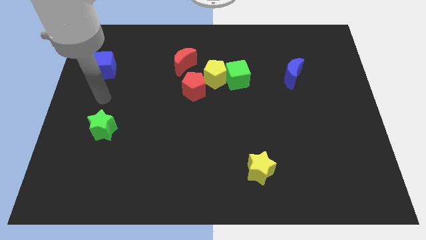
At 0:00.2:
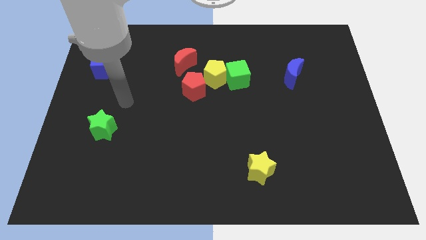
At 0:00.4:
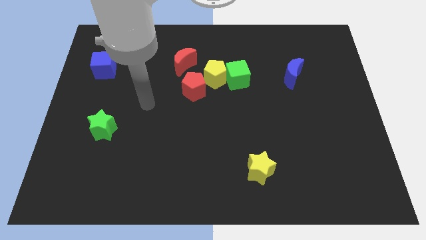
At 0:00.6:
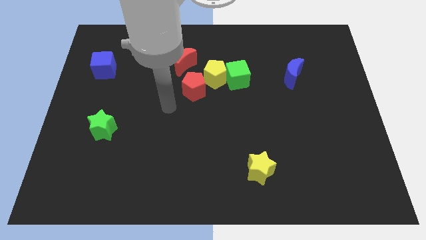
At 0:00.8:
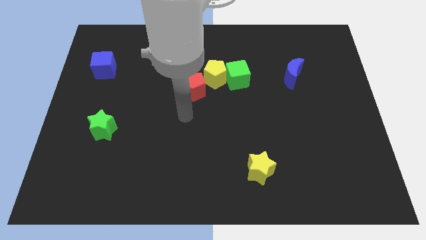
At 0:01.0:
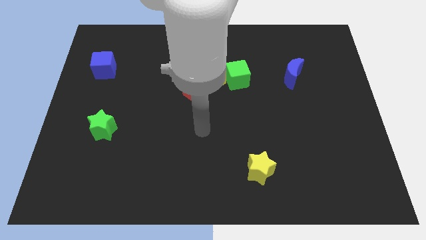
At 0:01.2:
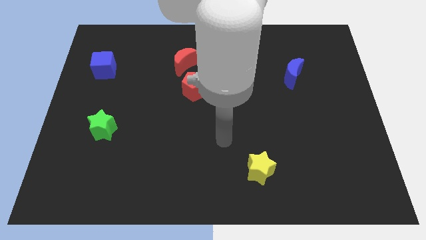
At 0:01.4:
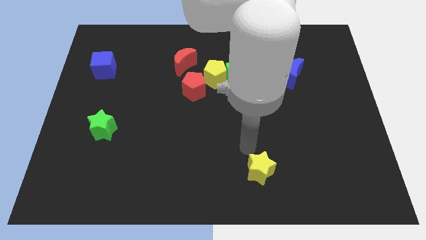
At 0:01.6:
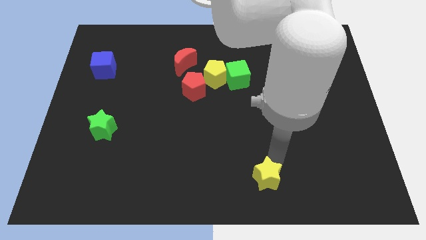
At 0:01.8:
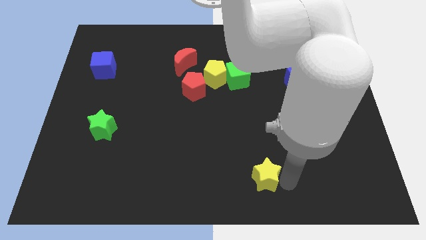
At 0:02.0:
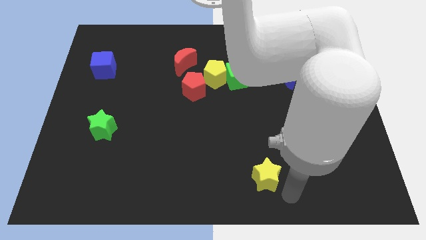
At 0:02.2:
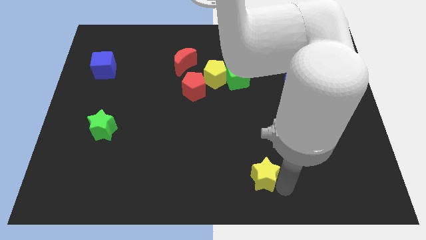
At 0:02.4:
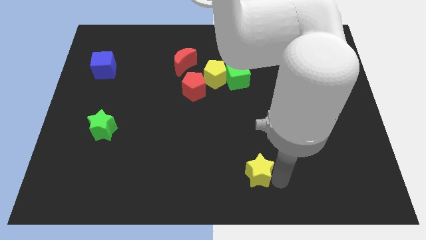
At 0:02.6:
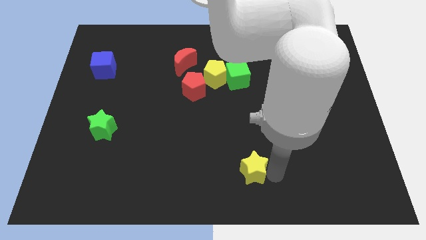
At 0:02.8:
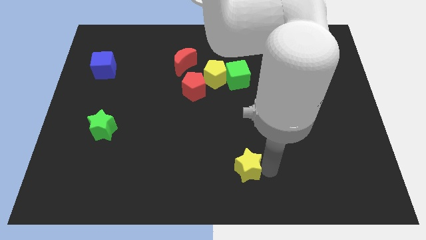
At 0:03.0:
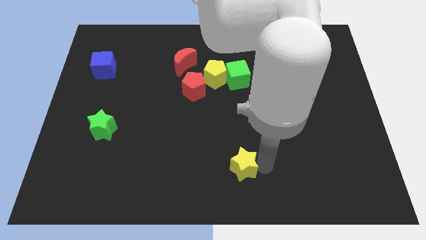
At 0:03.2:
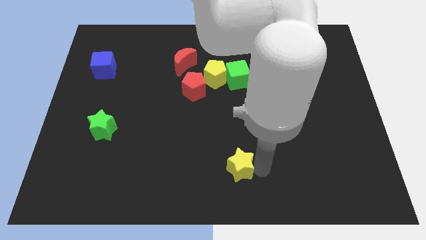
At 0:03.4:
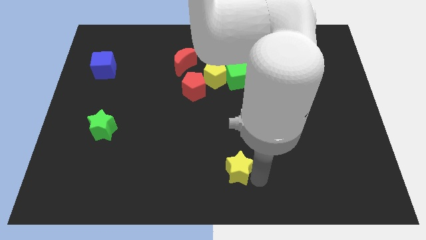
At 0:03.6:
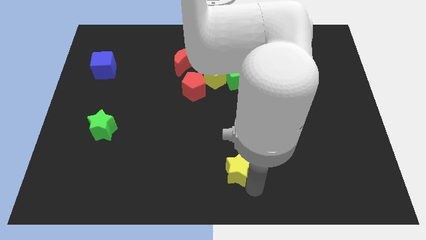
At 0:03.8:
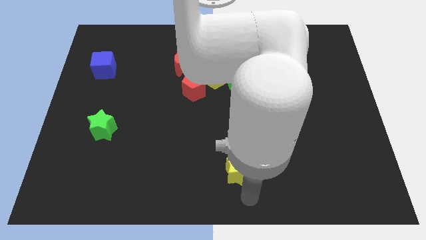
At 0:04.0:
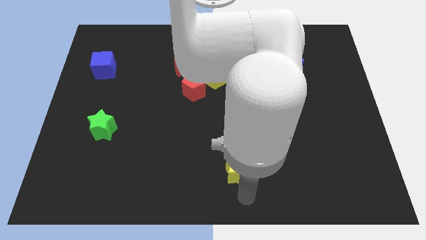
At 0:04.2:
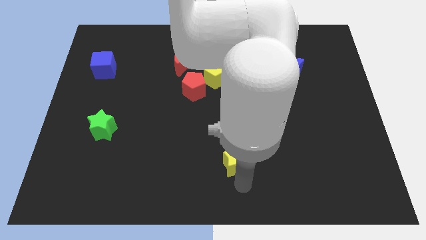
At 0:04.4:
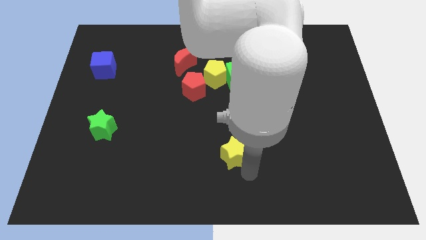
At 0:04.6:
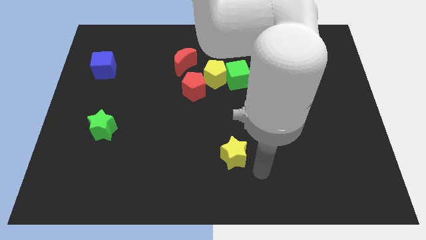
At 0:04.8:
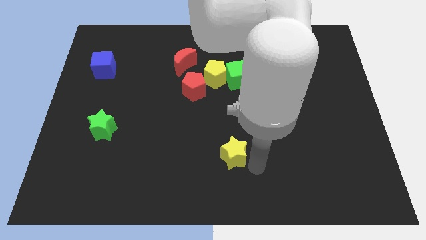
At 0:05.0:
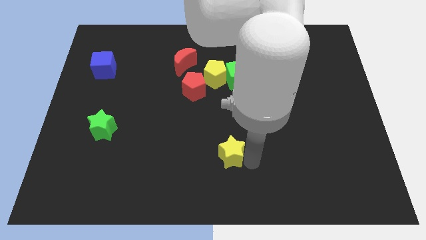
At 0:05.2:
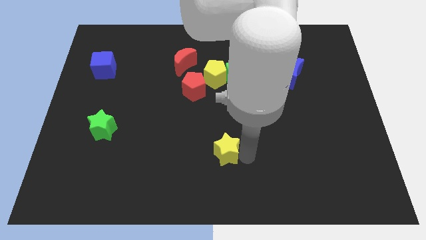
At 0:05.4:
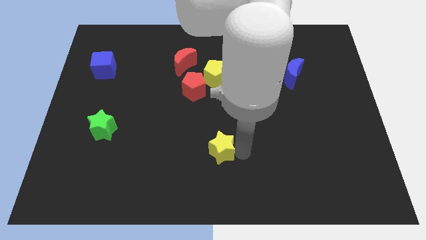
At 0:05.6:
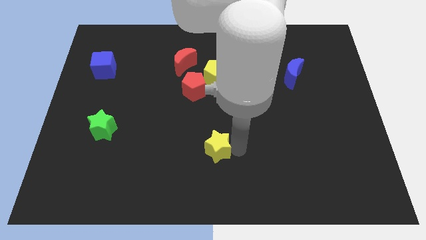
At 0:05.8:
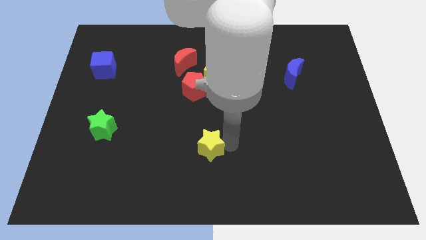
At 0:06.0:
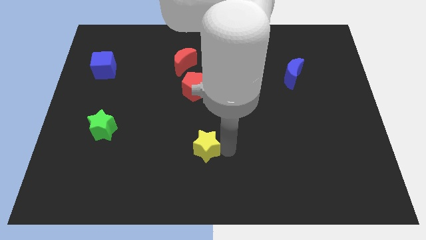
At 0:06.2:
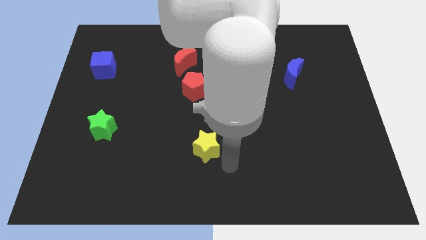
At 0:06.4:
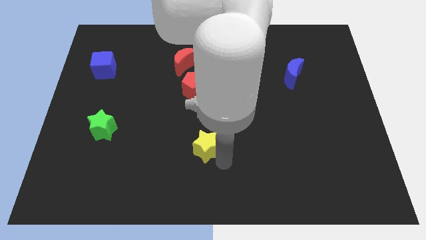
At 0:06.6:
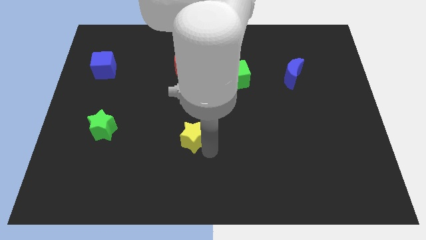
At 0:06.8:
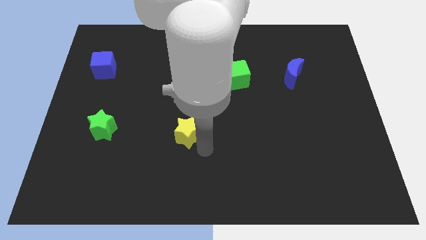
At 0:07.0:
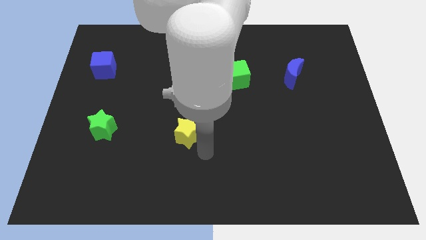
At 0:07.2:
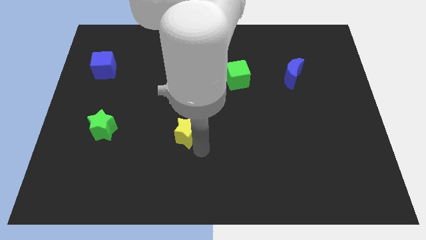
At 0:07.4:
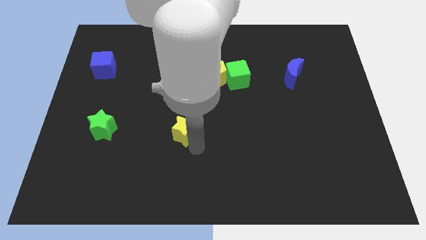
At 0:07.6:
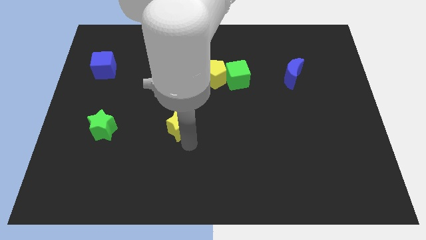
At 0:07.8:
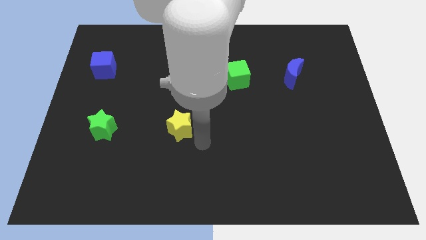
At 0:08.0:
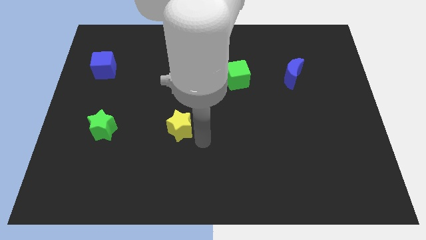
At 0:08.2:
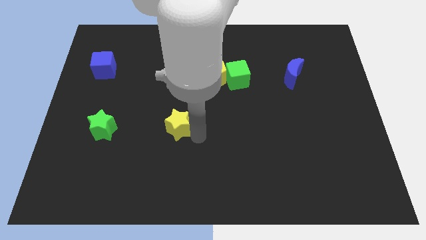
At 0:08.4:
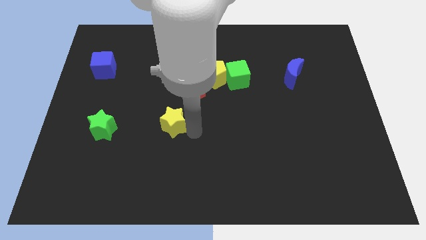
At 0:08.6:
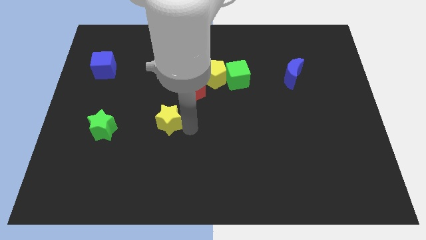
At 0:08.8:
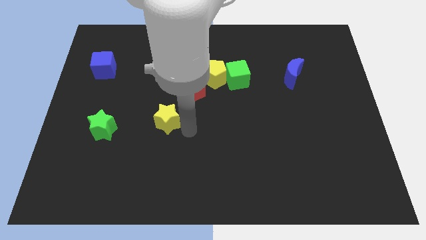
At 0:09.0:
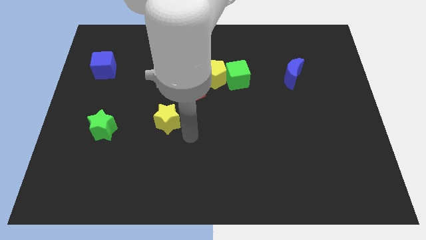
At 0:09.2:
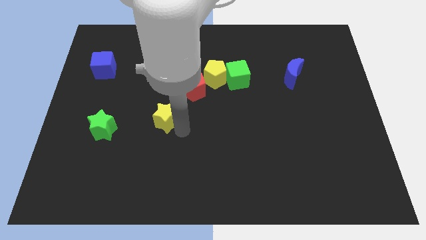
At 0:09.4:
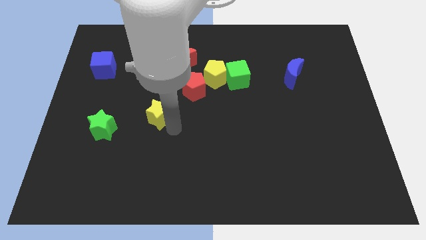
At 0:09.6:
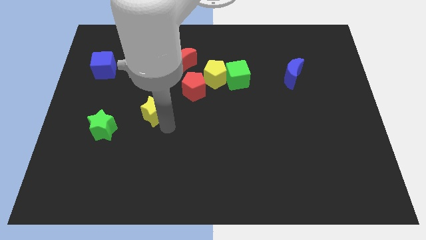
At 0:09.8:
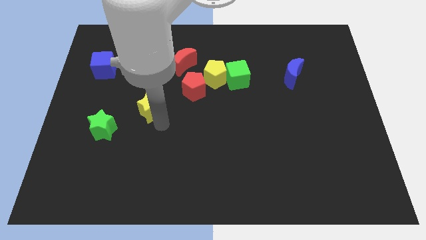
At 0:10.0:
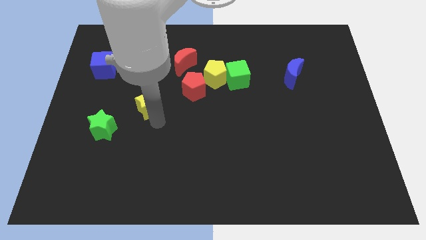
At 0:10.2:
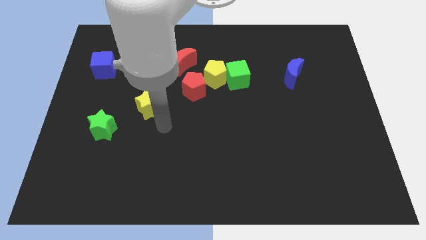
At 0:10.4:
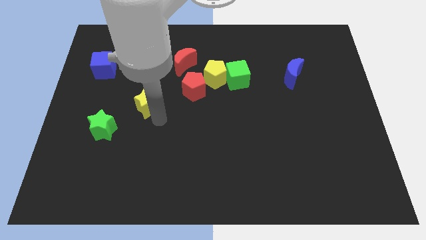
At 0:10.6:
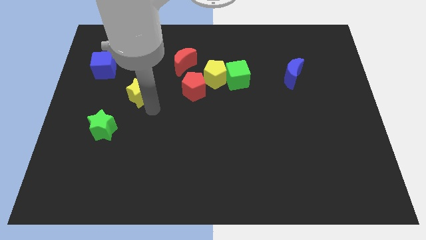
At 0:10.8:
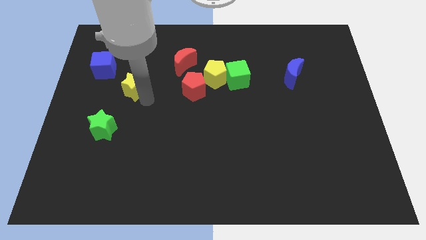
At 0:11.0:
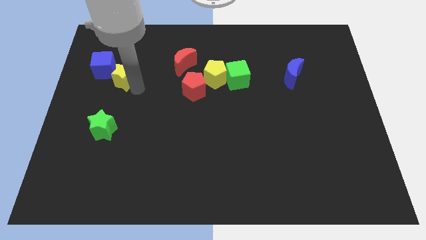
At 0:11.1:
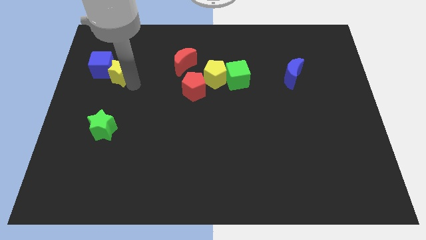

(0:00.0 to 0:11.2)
slide the yellow star next to the blue cube

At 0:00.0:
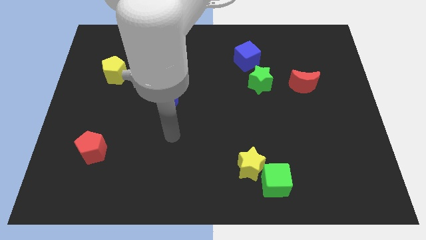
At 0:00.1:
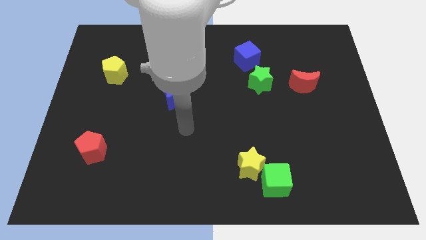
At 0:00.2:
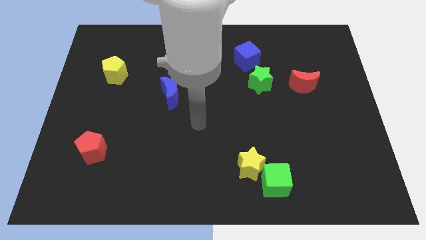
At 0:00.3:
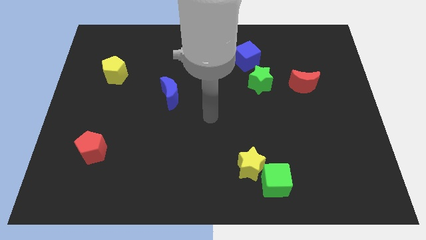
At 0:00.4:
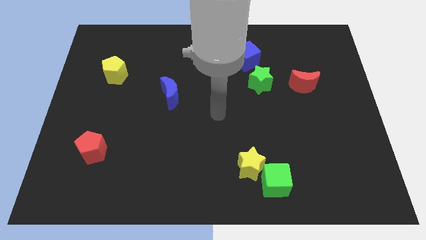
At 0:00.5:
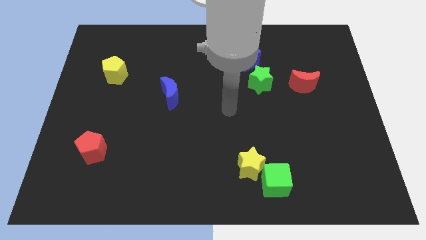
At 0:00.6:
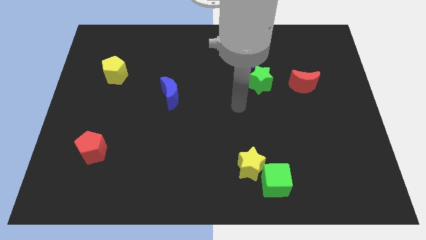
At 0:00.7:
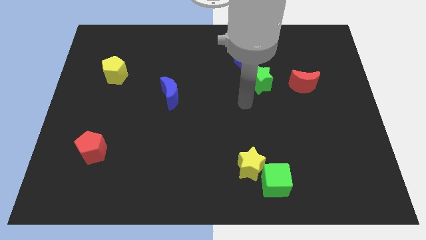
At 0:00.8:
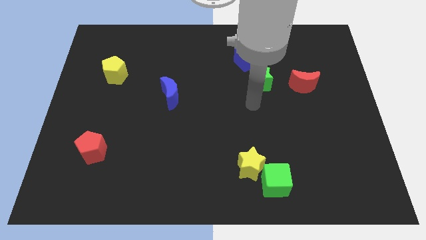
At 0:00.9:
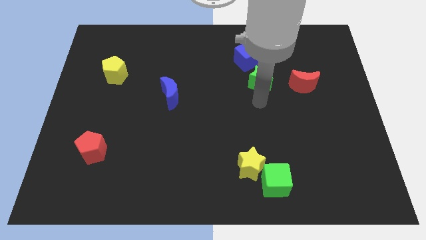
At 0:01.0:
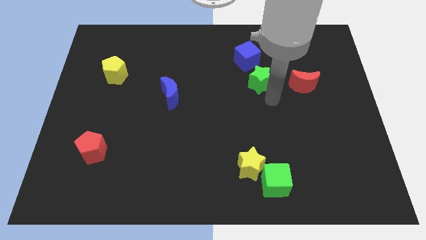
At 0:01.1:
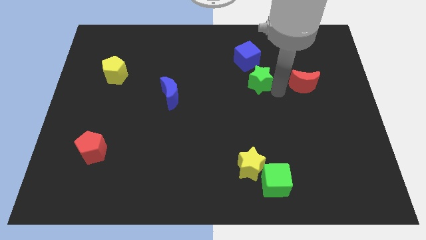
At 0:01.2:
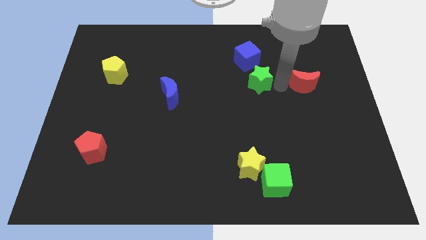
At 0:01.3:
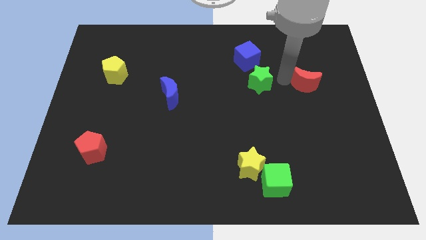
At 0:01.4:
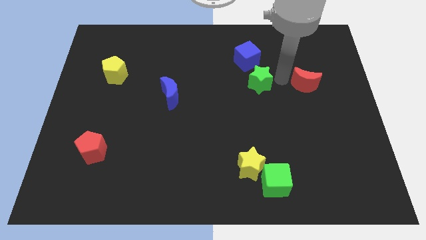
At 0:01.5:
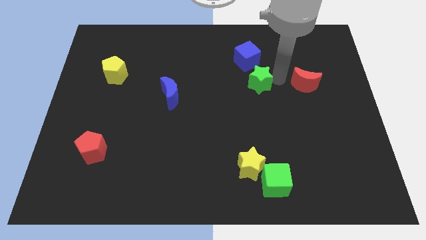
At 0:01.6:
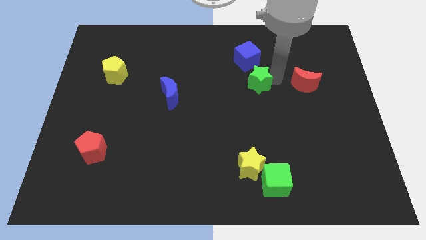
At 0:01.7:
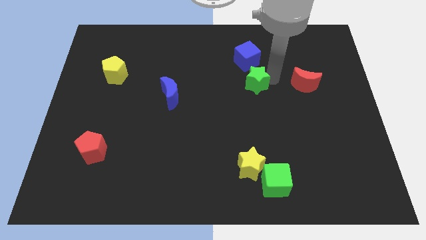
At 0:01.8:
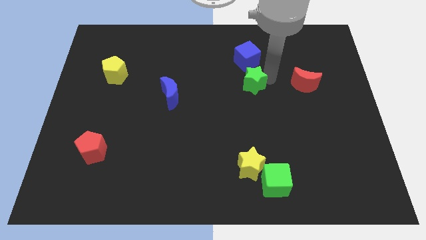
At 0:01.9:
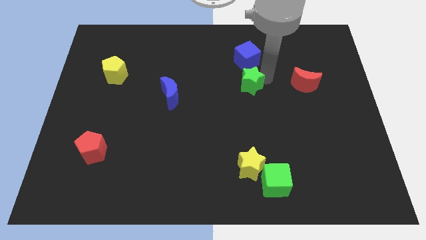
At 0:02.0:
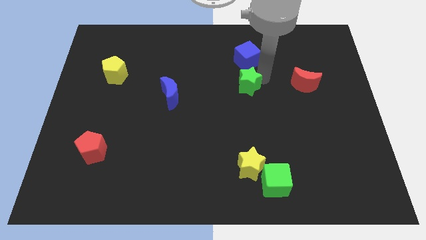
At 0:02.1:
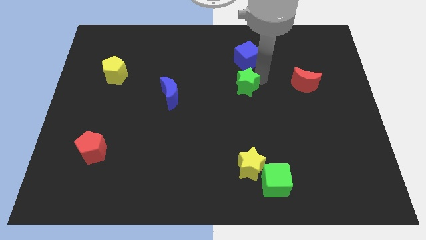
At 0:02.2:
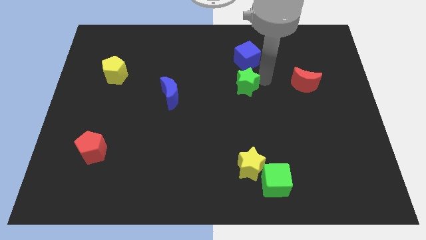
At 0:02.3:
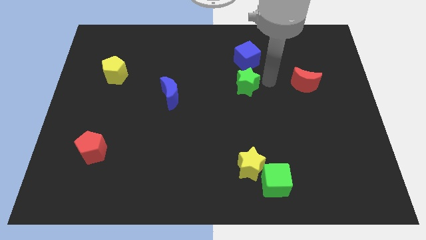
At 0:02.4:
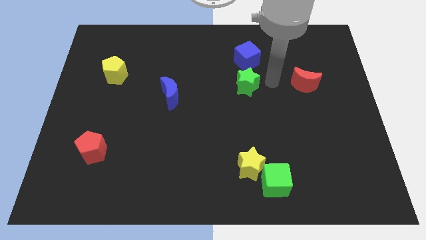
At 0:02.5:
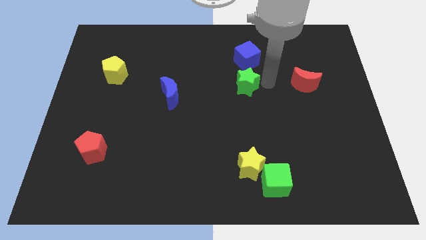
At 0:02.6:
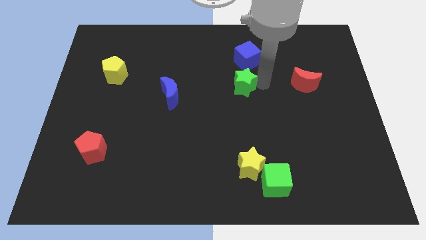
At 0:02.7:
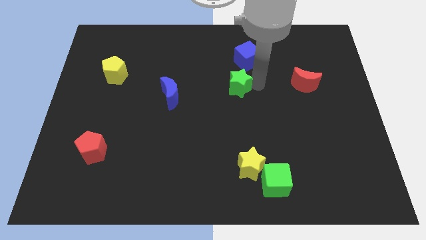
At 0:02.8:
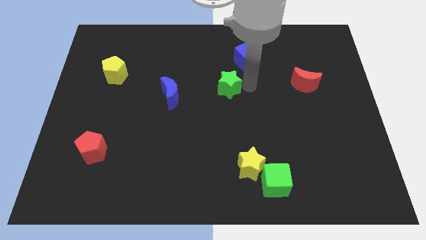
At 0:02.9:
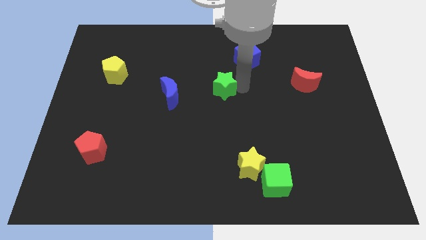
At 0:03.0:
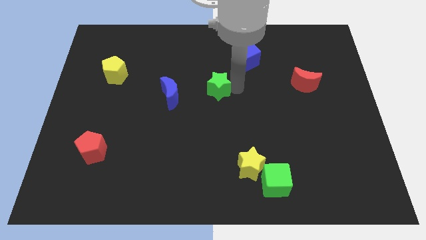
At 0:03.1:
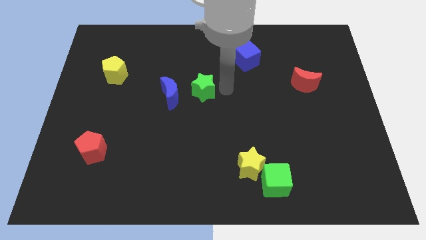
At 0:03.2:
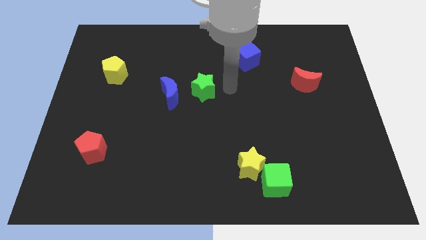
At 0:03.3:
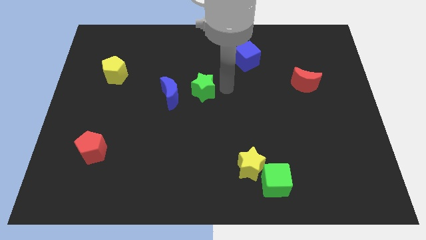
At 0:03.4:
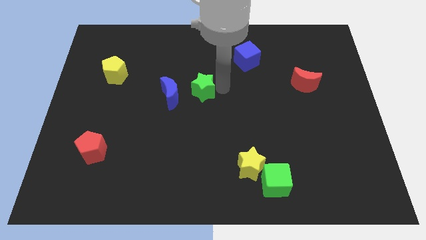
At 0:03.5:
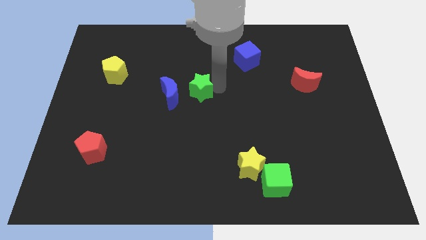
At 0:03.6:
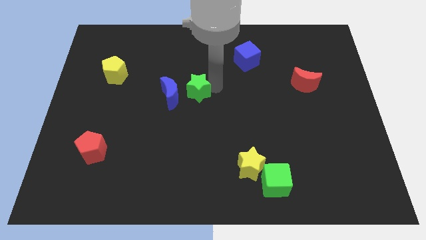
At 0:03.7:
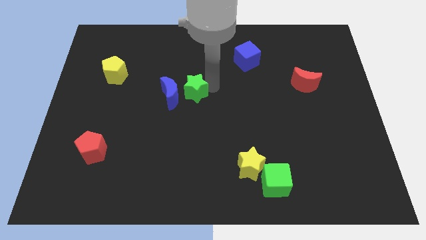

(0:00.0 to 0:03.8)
put the green star next to the blue moon
